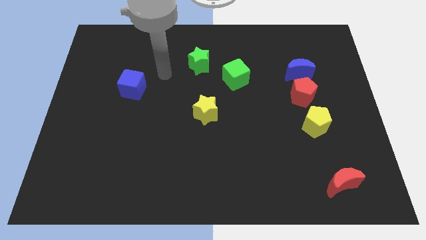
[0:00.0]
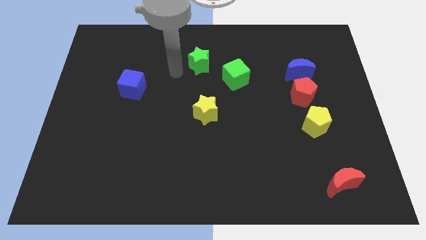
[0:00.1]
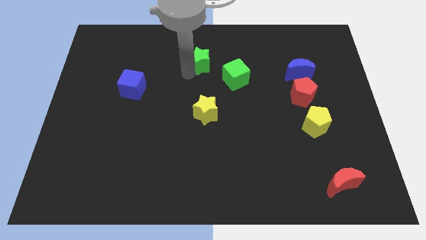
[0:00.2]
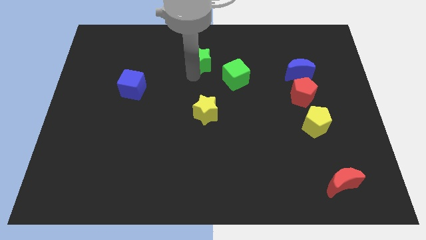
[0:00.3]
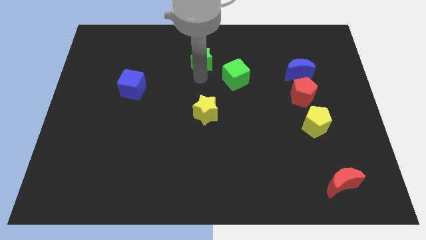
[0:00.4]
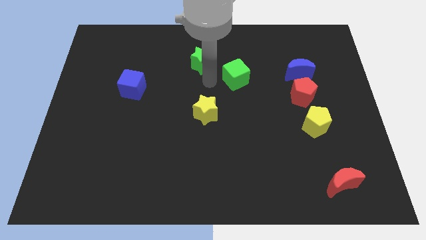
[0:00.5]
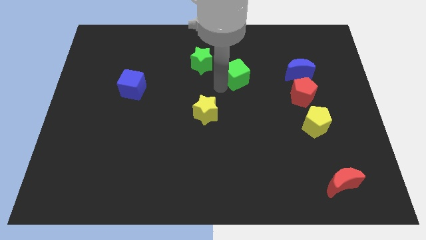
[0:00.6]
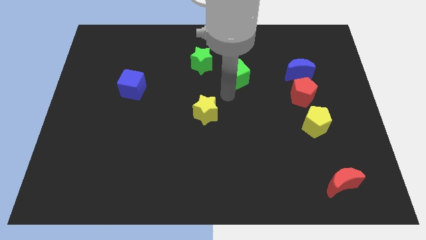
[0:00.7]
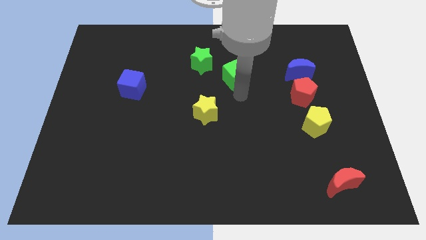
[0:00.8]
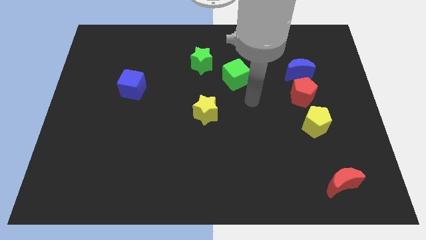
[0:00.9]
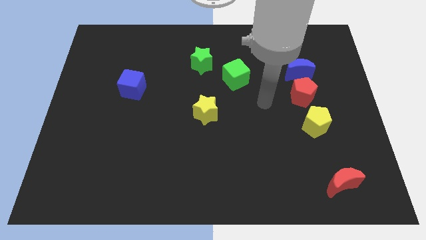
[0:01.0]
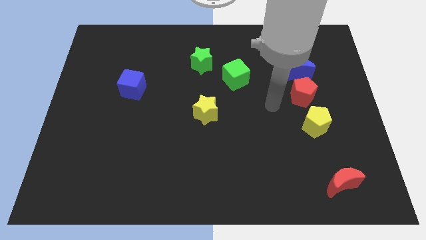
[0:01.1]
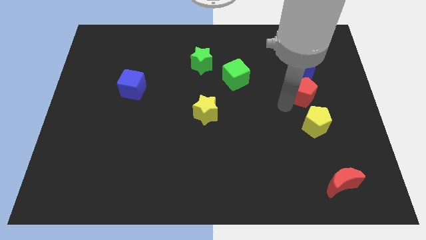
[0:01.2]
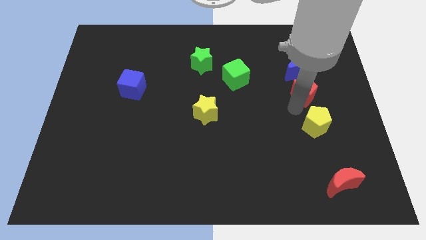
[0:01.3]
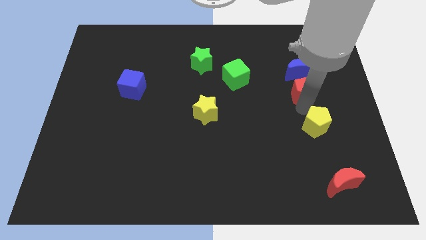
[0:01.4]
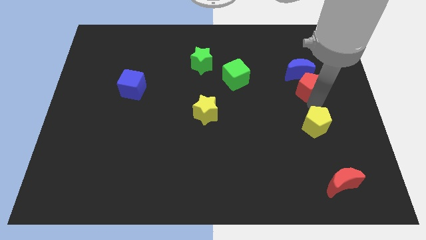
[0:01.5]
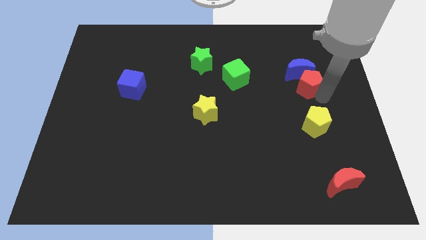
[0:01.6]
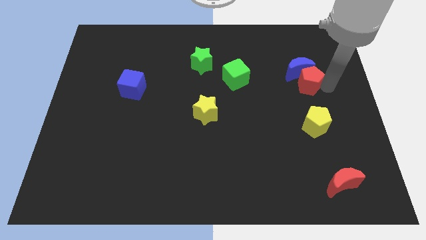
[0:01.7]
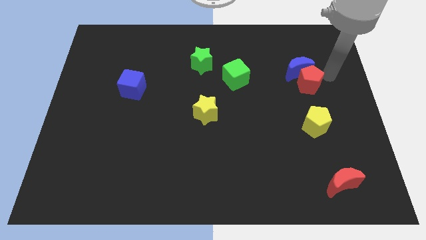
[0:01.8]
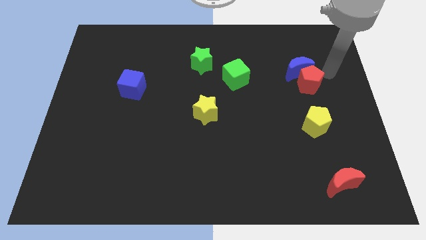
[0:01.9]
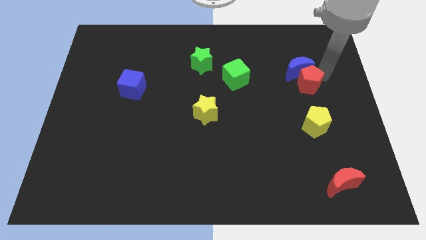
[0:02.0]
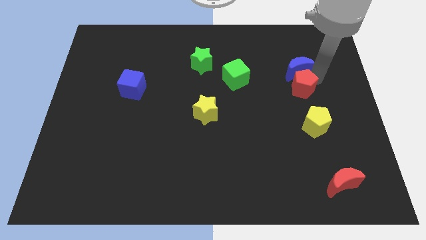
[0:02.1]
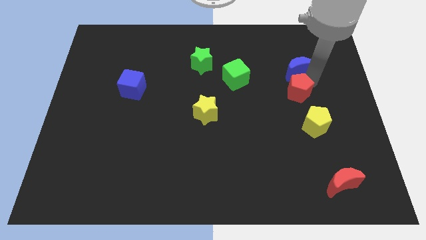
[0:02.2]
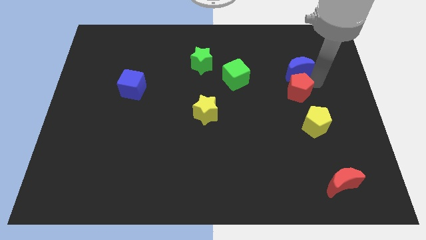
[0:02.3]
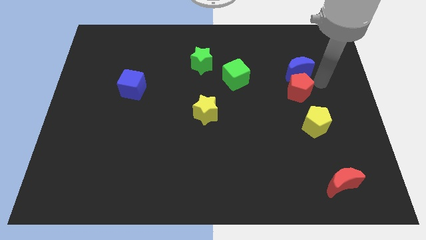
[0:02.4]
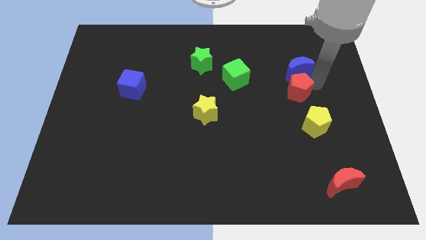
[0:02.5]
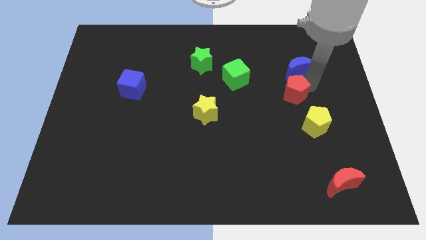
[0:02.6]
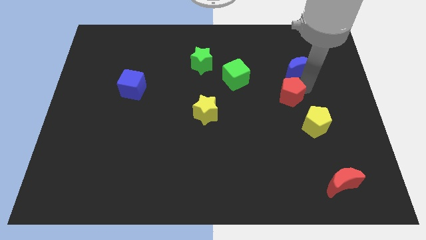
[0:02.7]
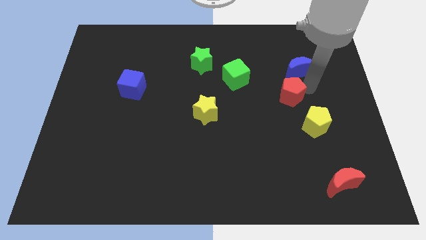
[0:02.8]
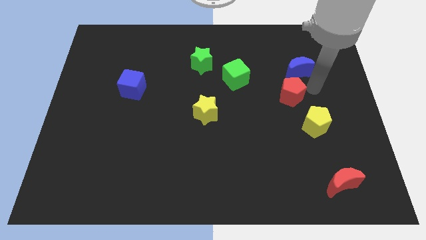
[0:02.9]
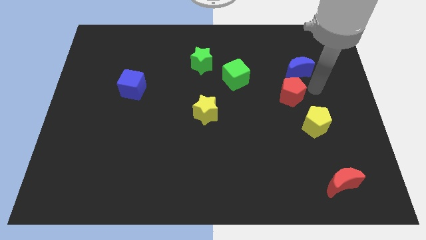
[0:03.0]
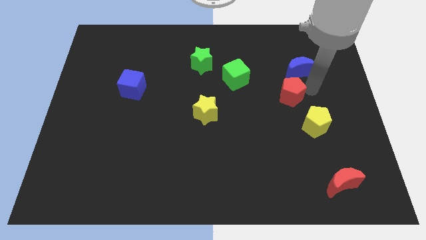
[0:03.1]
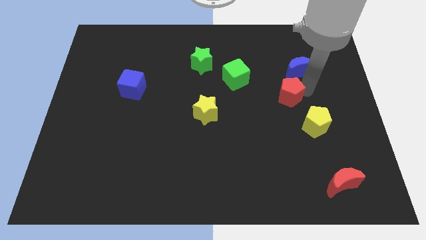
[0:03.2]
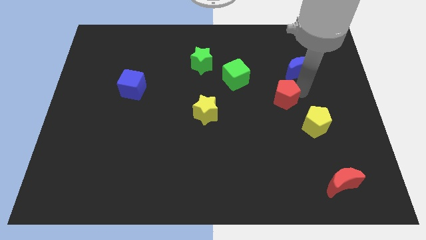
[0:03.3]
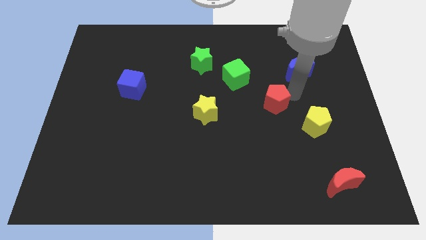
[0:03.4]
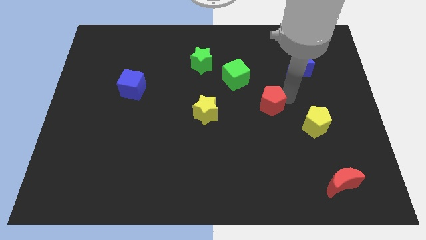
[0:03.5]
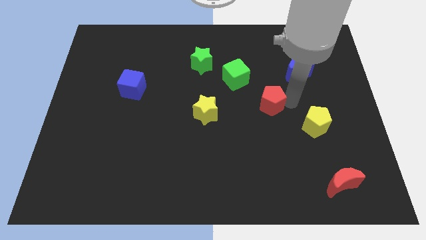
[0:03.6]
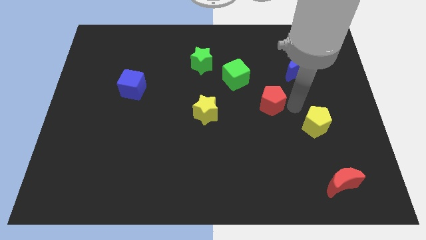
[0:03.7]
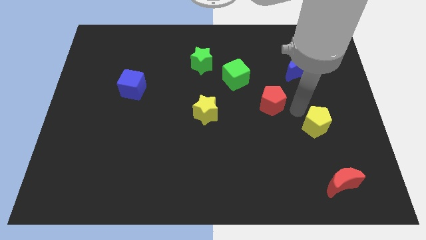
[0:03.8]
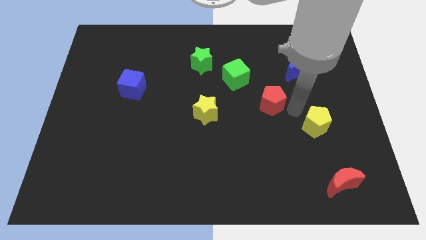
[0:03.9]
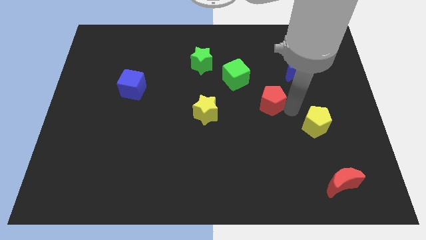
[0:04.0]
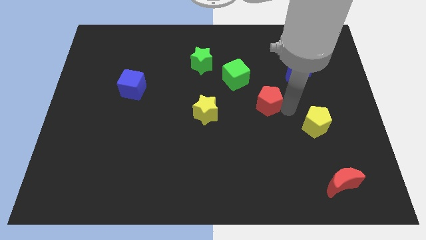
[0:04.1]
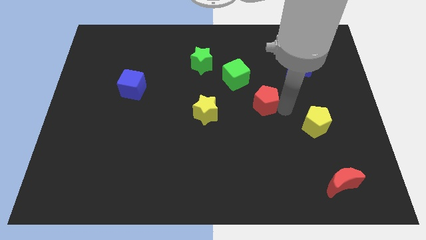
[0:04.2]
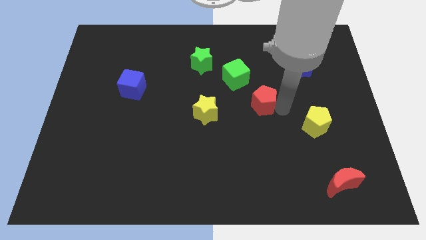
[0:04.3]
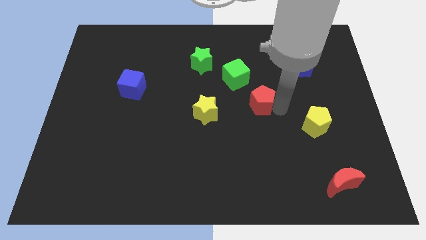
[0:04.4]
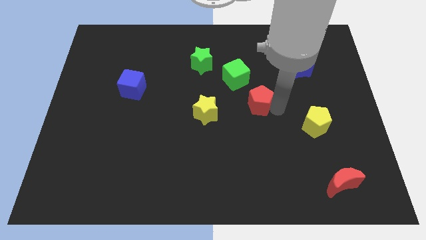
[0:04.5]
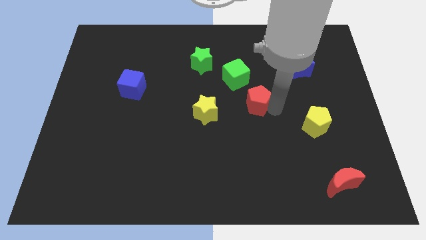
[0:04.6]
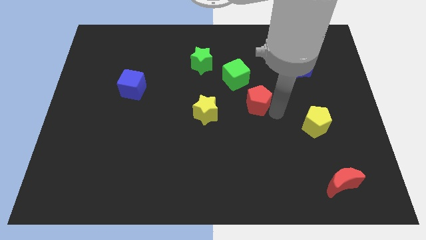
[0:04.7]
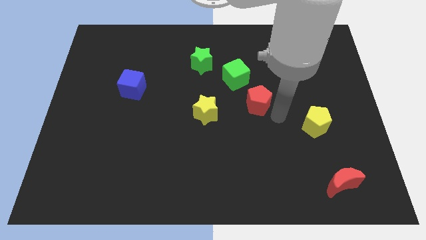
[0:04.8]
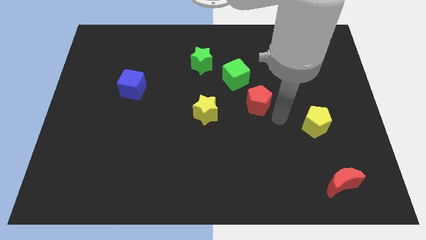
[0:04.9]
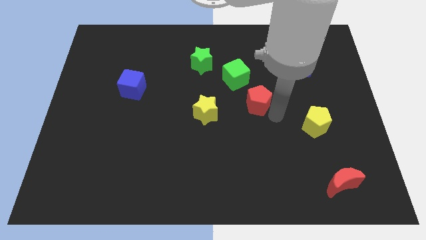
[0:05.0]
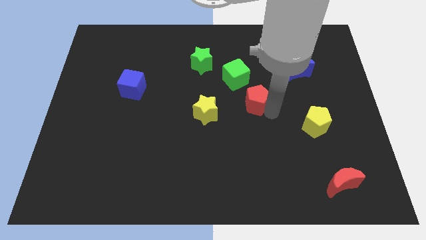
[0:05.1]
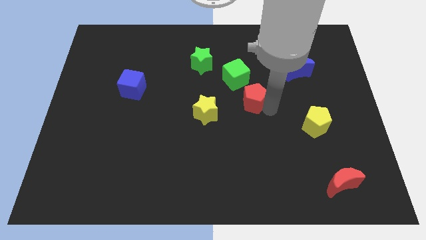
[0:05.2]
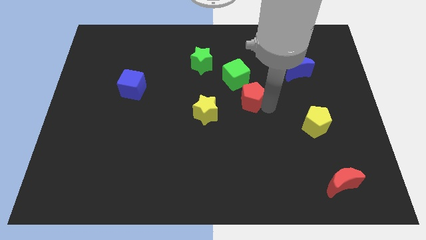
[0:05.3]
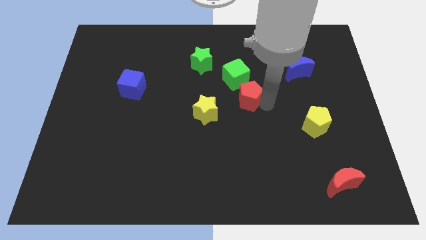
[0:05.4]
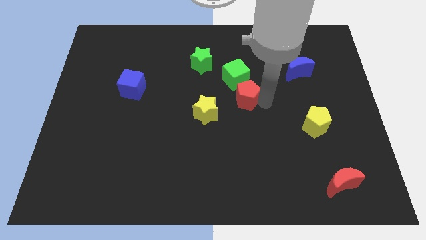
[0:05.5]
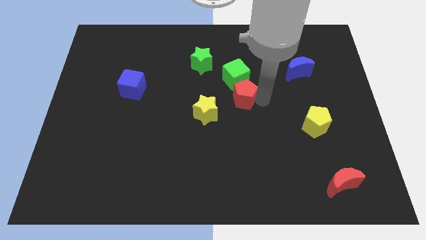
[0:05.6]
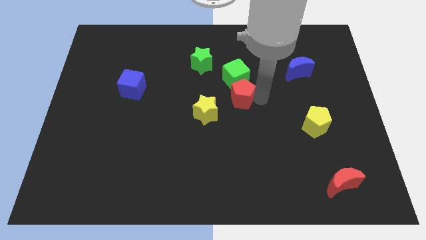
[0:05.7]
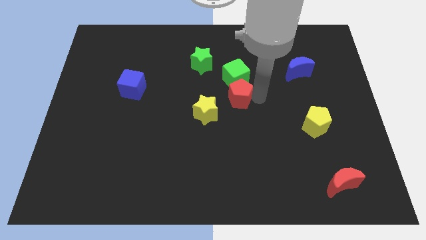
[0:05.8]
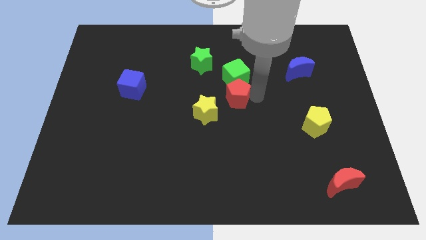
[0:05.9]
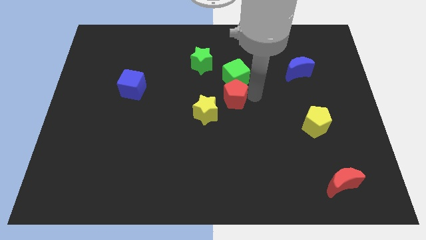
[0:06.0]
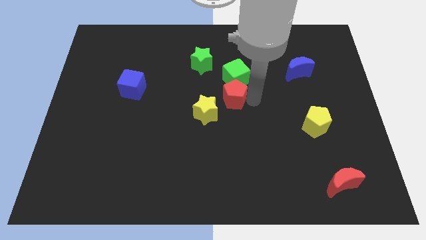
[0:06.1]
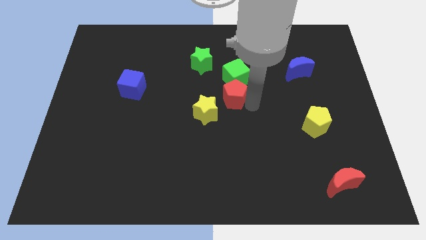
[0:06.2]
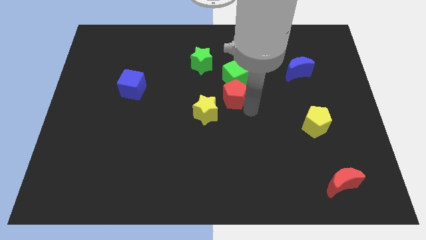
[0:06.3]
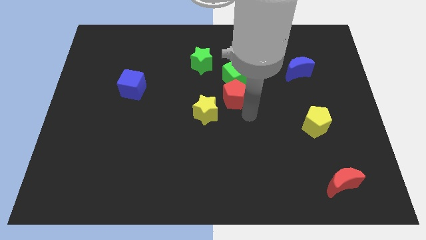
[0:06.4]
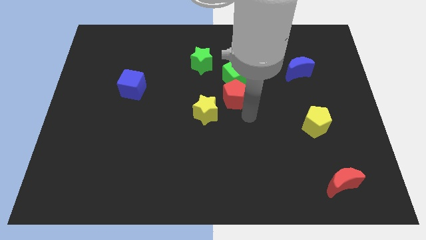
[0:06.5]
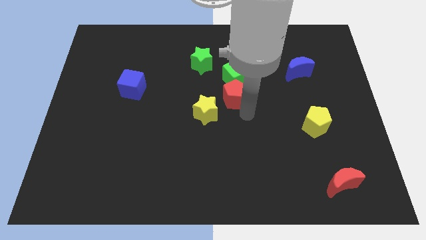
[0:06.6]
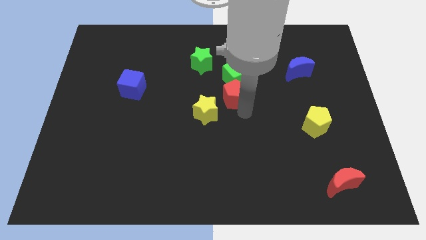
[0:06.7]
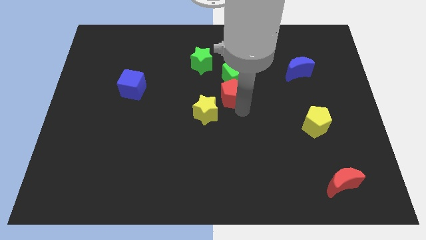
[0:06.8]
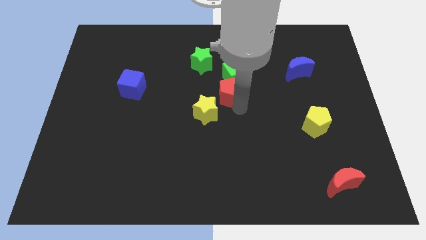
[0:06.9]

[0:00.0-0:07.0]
put the red pentagon to the bottom right side of the green star
